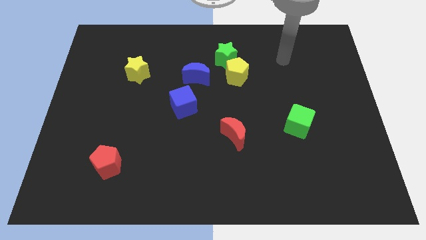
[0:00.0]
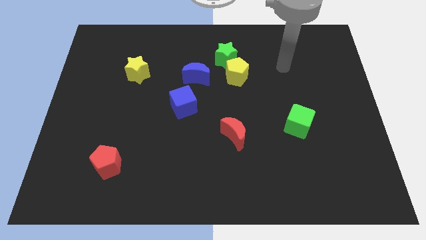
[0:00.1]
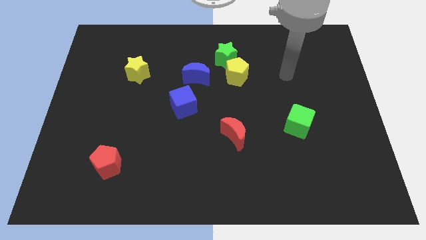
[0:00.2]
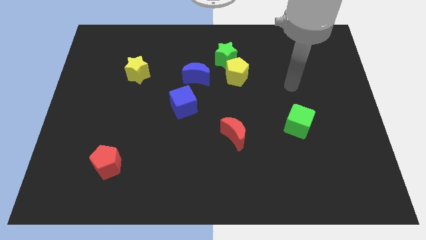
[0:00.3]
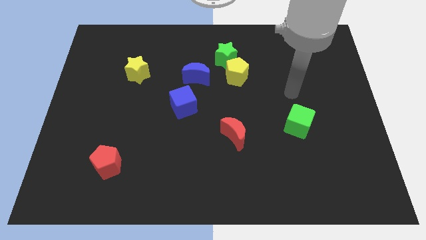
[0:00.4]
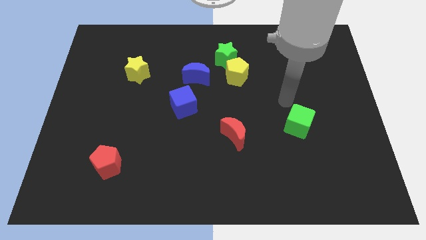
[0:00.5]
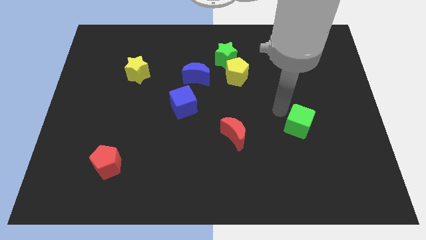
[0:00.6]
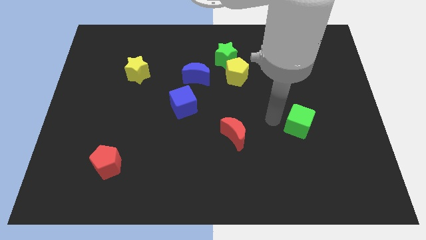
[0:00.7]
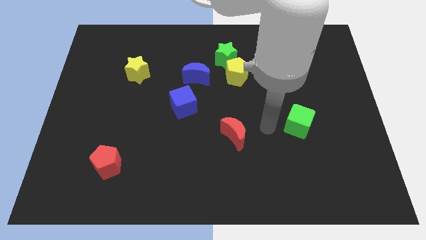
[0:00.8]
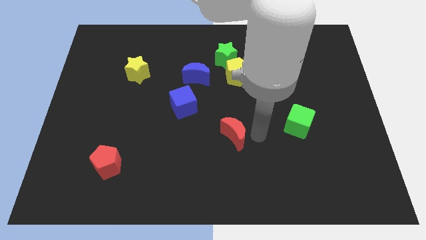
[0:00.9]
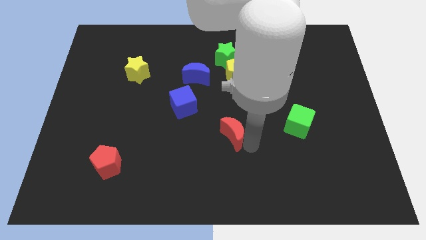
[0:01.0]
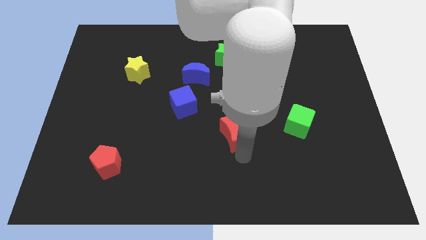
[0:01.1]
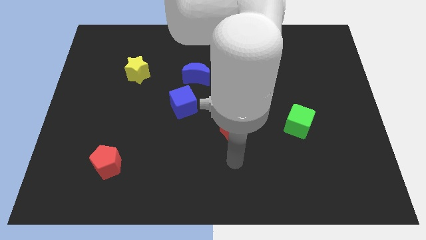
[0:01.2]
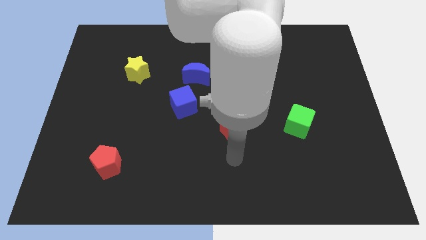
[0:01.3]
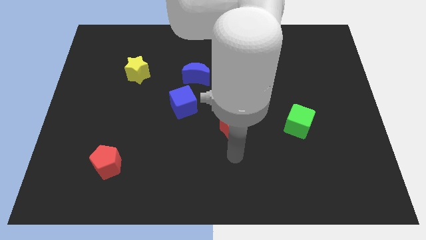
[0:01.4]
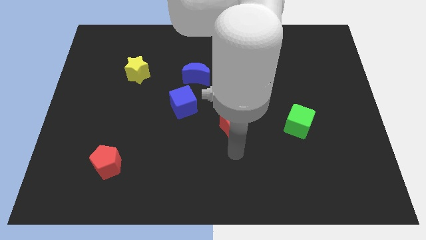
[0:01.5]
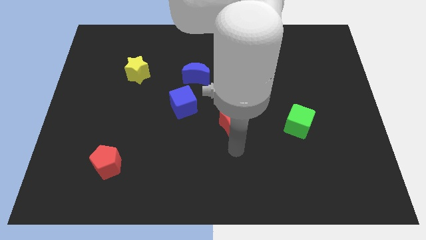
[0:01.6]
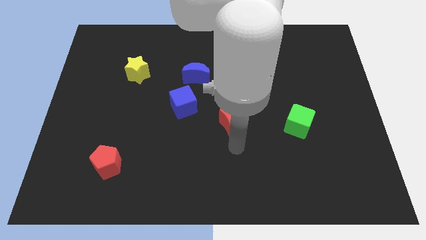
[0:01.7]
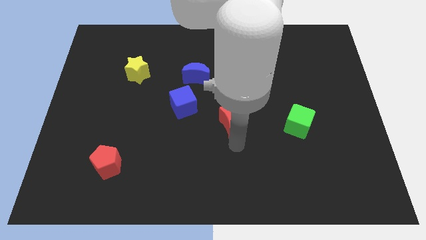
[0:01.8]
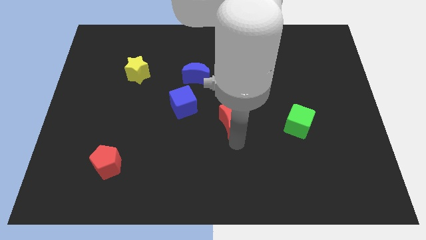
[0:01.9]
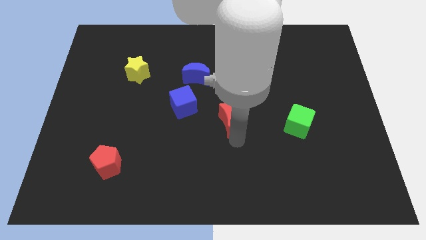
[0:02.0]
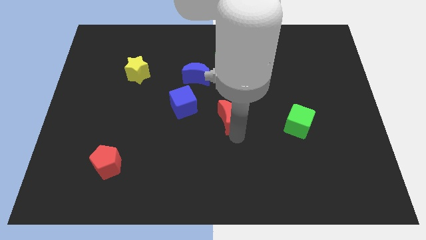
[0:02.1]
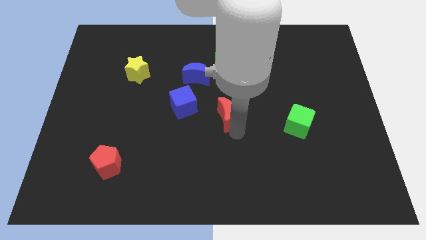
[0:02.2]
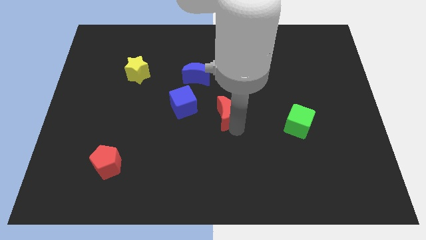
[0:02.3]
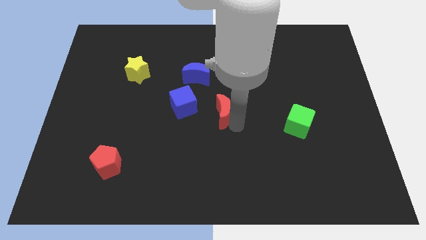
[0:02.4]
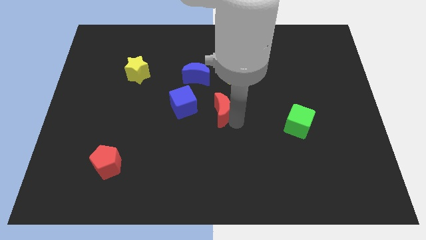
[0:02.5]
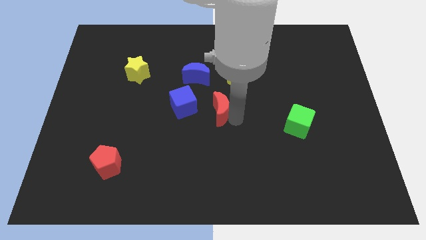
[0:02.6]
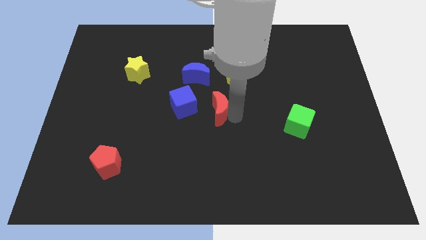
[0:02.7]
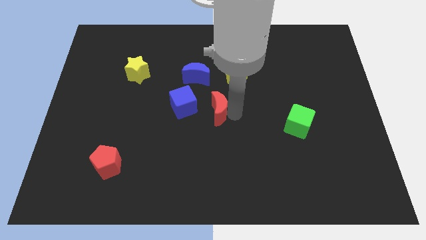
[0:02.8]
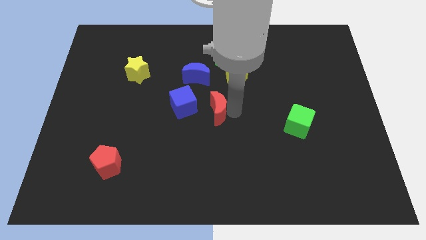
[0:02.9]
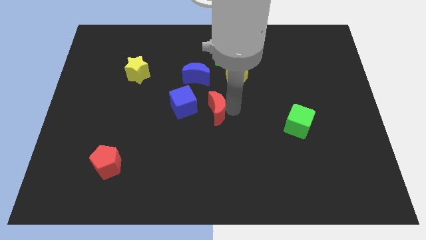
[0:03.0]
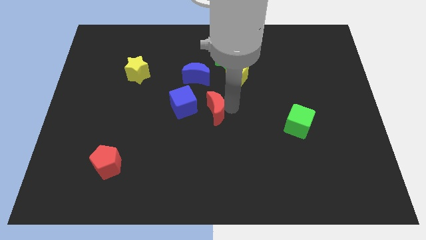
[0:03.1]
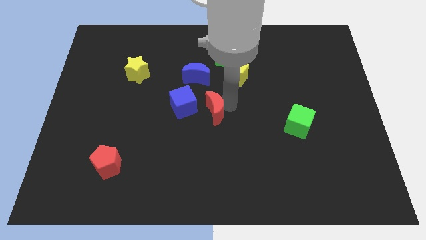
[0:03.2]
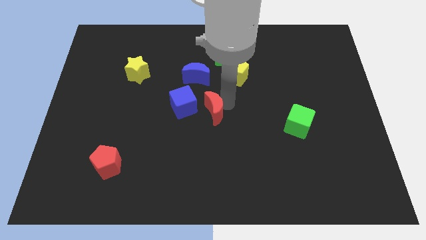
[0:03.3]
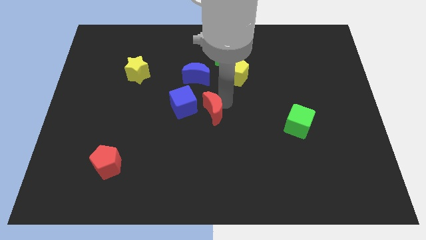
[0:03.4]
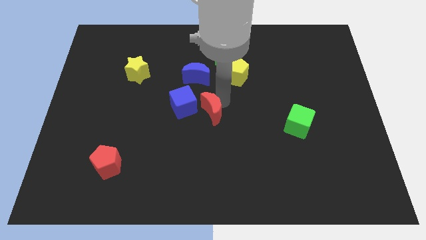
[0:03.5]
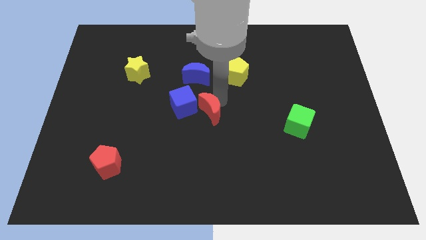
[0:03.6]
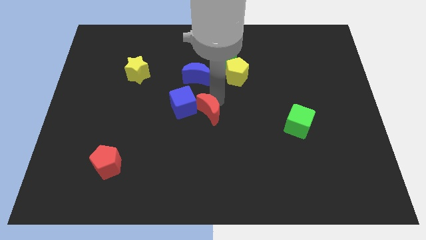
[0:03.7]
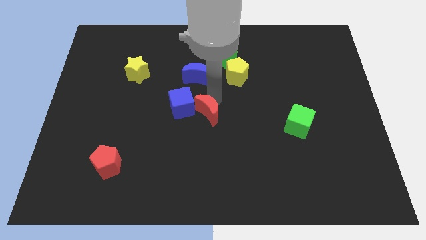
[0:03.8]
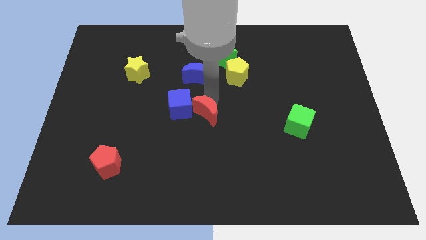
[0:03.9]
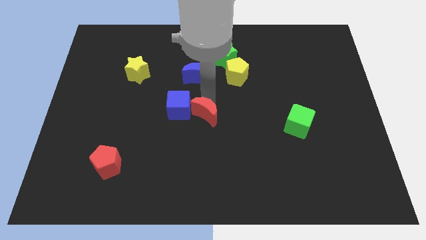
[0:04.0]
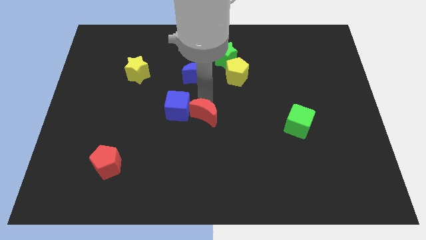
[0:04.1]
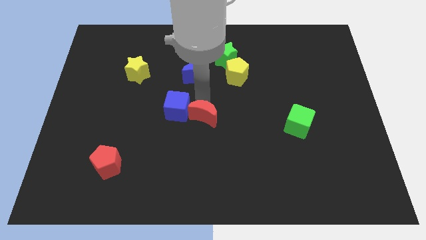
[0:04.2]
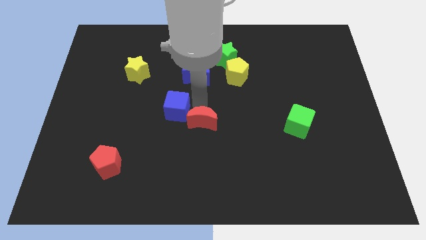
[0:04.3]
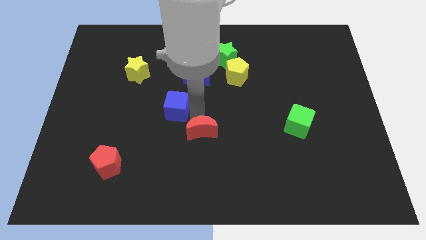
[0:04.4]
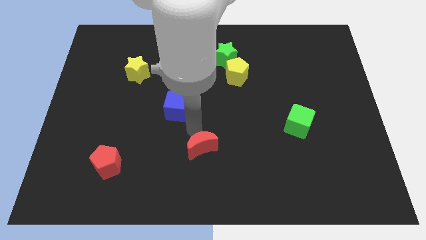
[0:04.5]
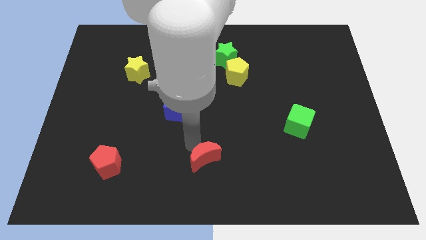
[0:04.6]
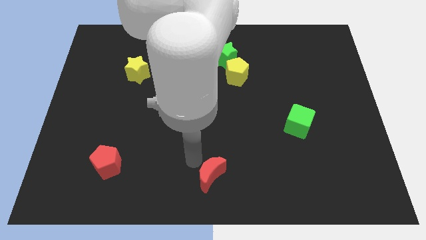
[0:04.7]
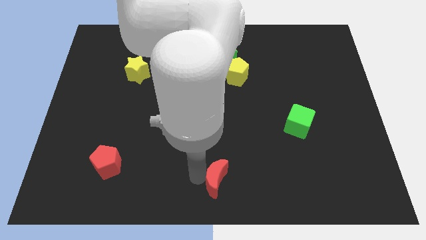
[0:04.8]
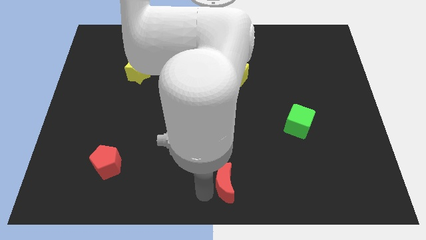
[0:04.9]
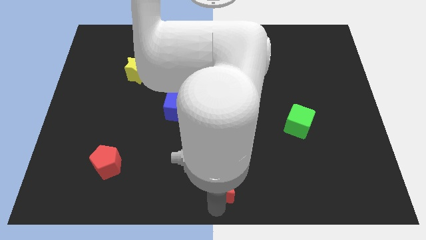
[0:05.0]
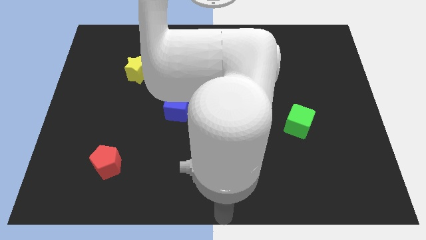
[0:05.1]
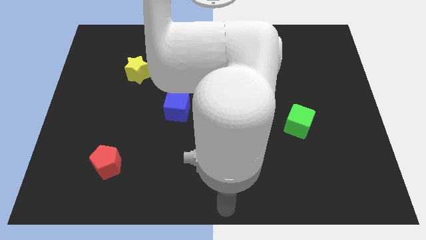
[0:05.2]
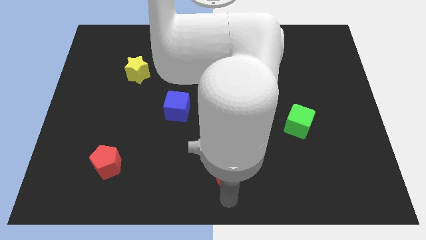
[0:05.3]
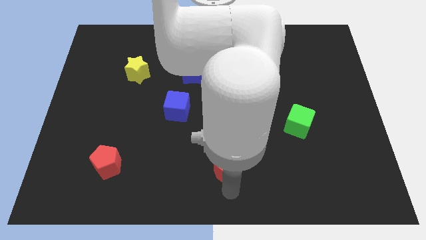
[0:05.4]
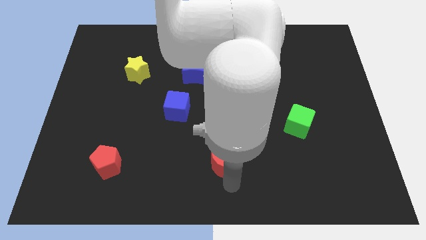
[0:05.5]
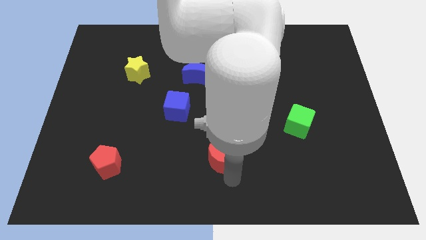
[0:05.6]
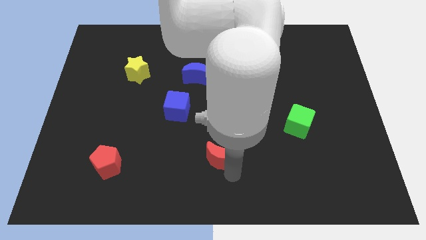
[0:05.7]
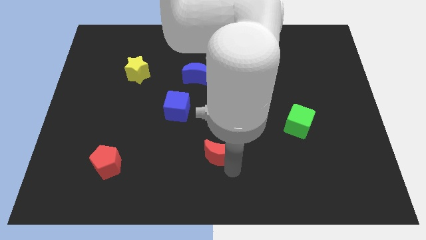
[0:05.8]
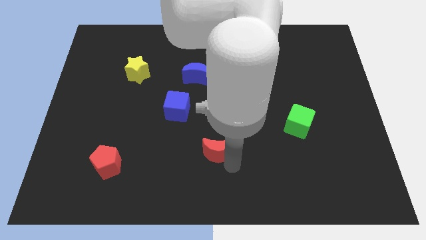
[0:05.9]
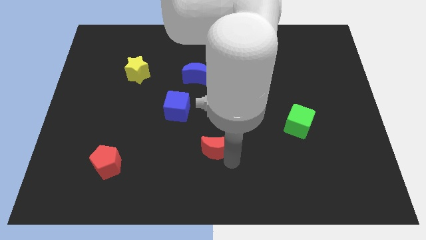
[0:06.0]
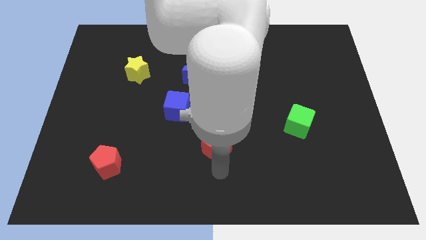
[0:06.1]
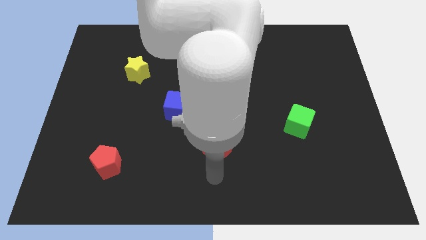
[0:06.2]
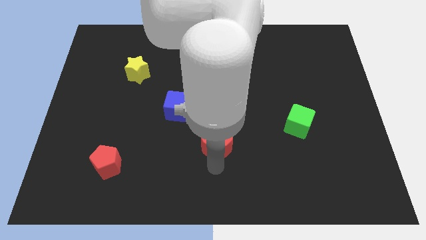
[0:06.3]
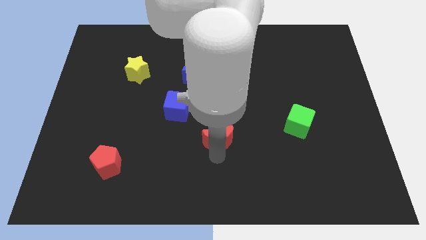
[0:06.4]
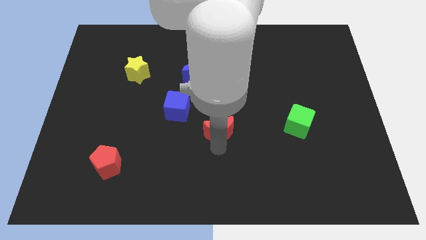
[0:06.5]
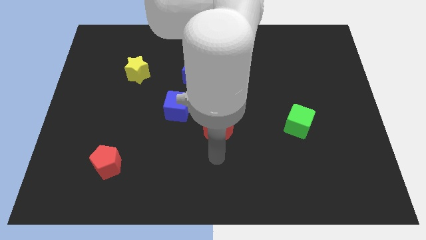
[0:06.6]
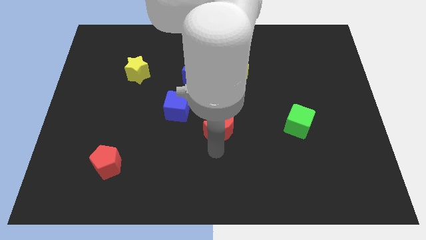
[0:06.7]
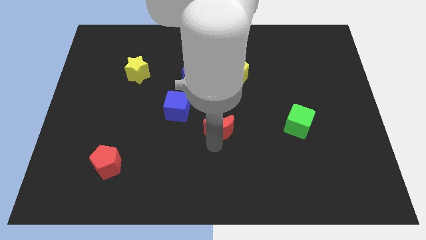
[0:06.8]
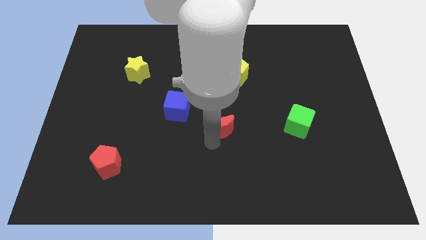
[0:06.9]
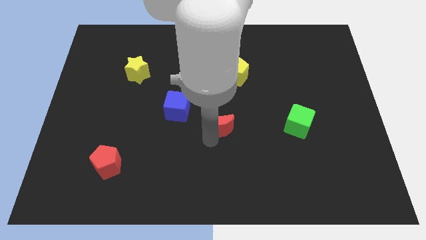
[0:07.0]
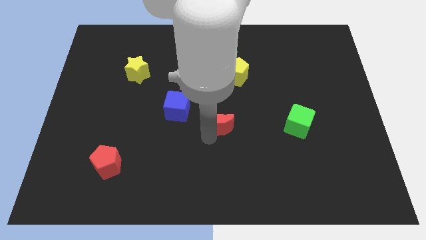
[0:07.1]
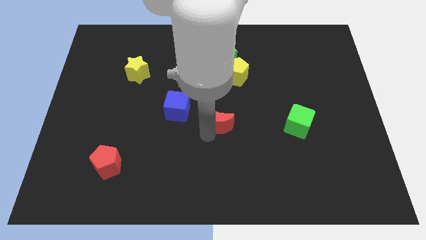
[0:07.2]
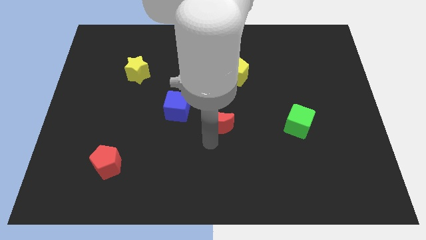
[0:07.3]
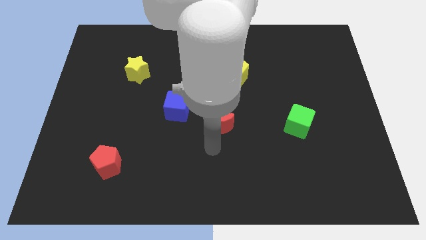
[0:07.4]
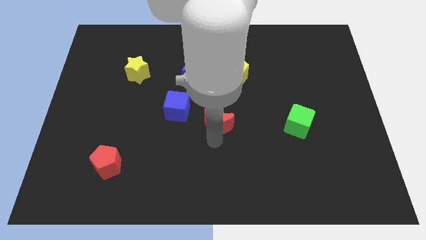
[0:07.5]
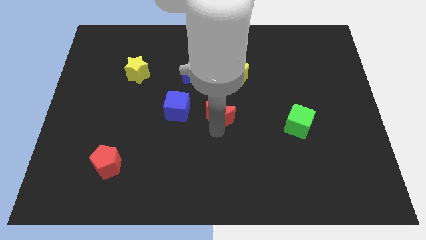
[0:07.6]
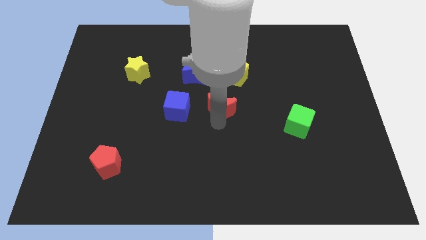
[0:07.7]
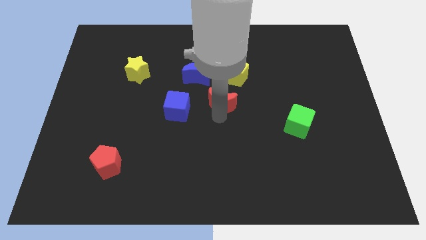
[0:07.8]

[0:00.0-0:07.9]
move the red moon to the bottom of the green star
